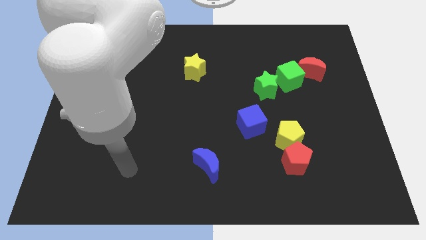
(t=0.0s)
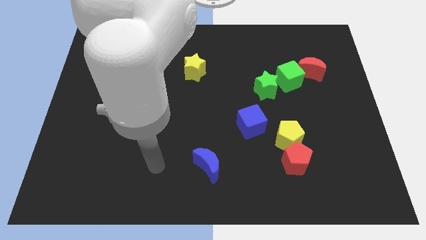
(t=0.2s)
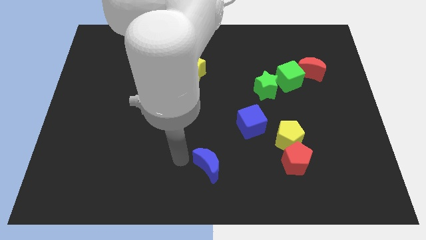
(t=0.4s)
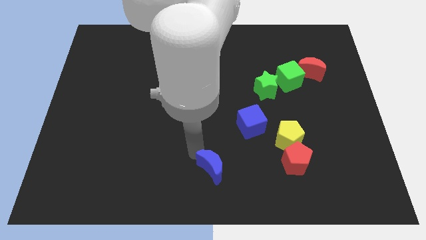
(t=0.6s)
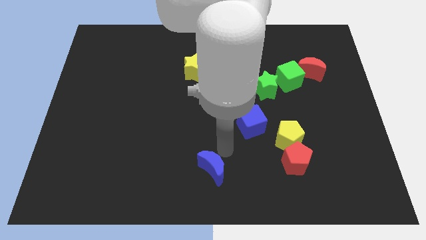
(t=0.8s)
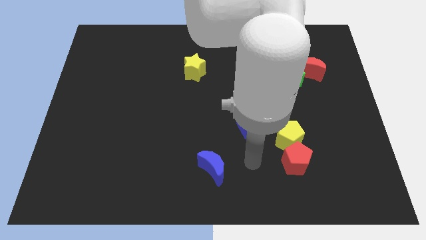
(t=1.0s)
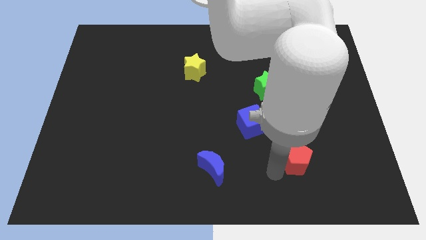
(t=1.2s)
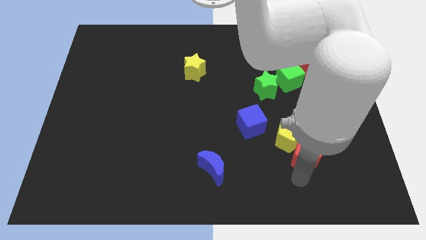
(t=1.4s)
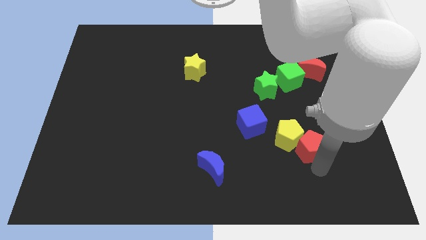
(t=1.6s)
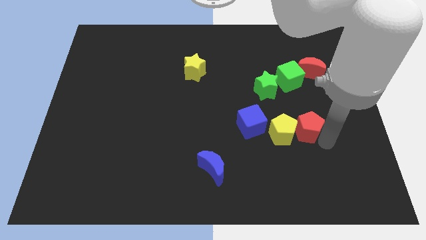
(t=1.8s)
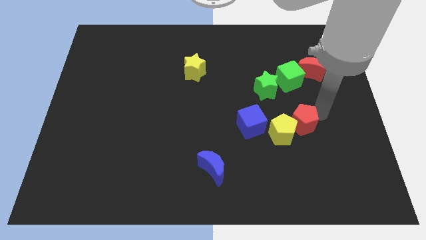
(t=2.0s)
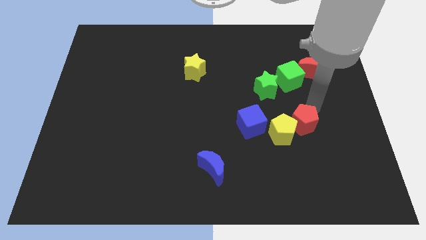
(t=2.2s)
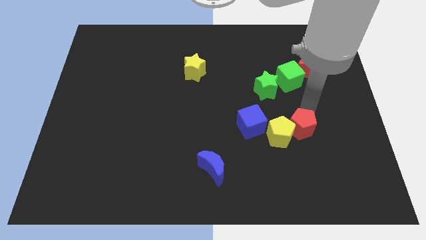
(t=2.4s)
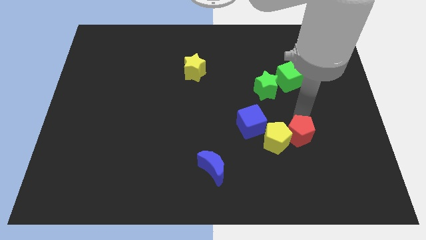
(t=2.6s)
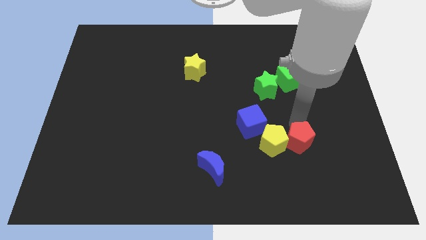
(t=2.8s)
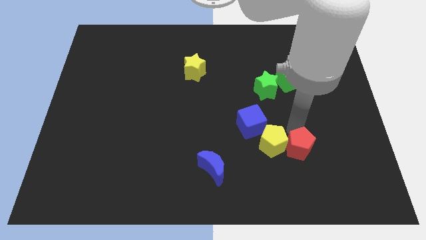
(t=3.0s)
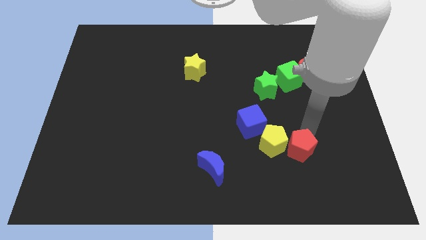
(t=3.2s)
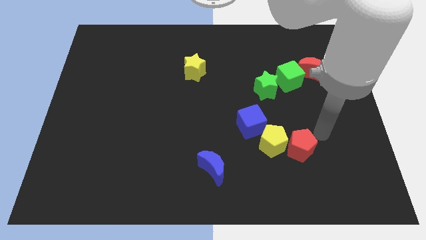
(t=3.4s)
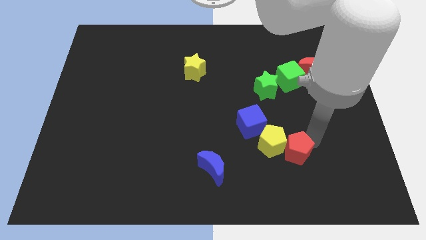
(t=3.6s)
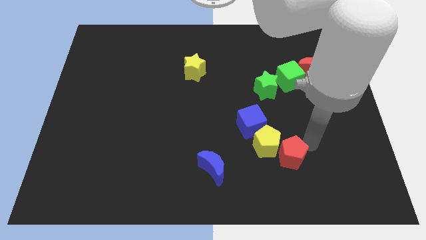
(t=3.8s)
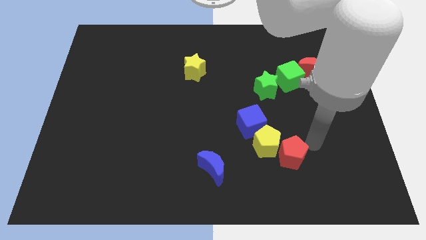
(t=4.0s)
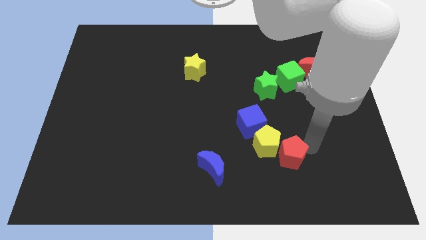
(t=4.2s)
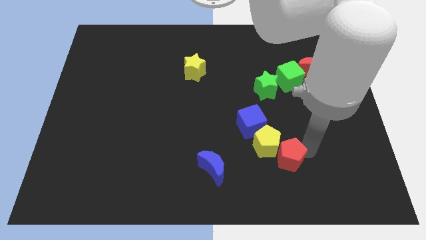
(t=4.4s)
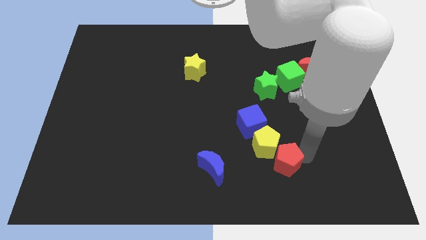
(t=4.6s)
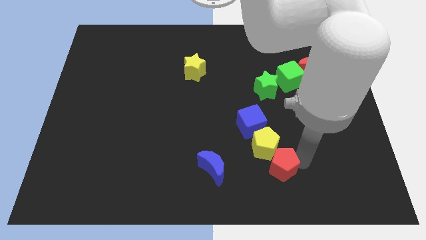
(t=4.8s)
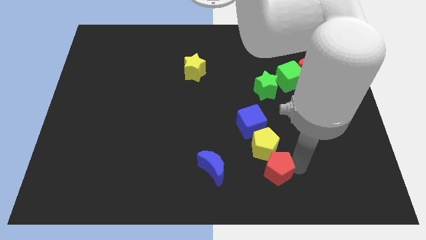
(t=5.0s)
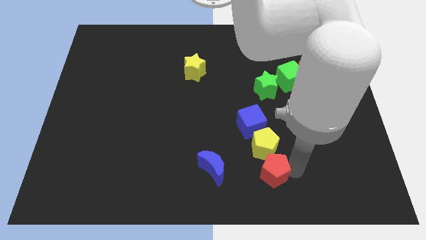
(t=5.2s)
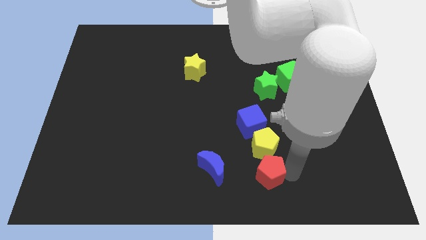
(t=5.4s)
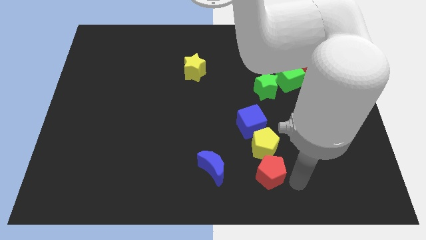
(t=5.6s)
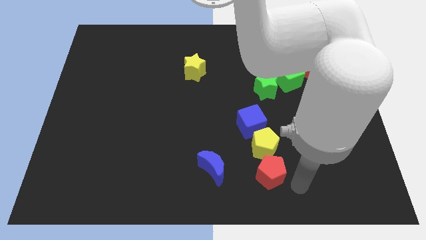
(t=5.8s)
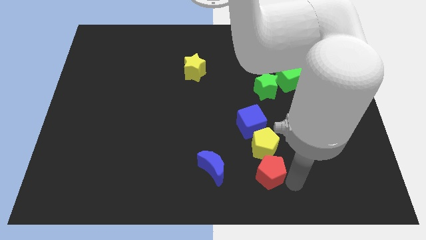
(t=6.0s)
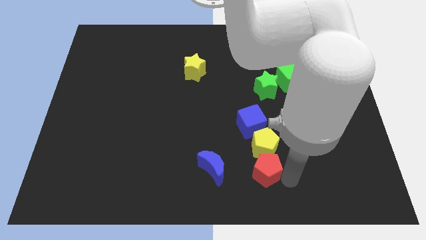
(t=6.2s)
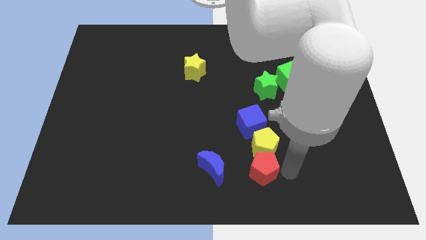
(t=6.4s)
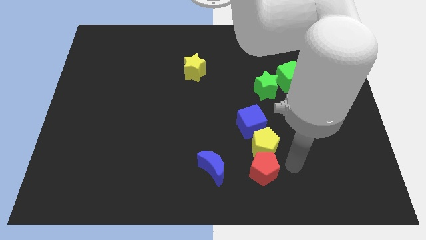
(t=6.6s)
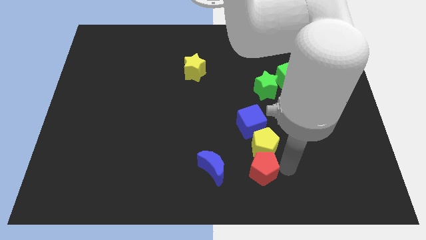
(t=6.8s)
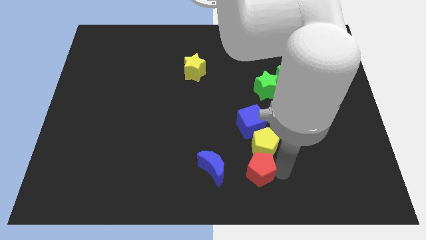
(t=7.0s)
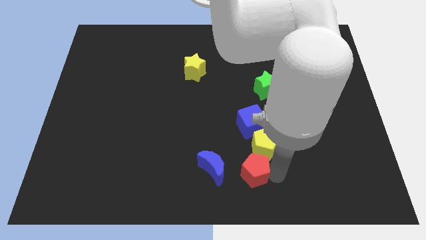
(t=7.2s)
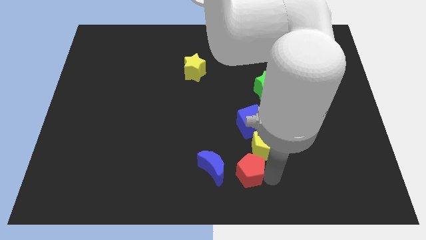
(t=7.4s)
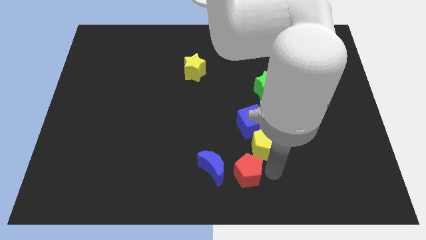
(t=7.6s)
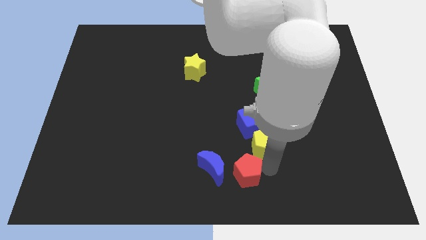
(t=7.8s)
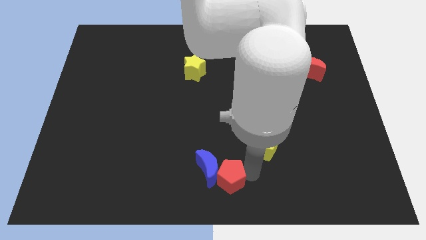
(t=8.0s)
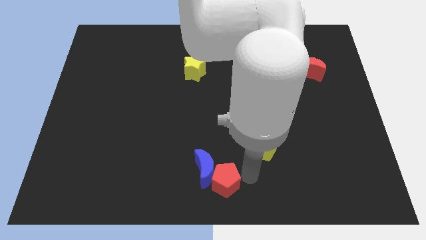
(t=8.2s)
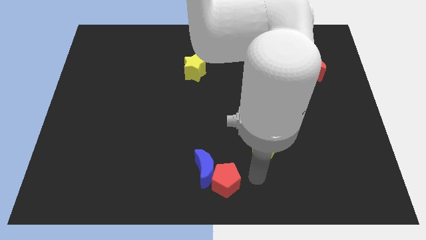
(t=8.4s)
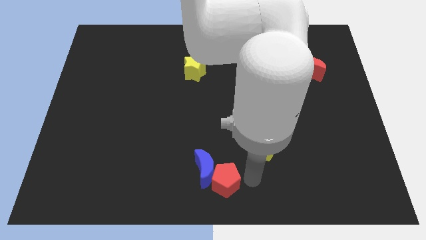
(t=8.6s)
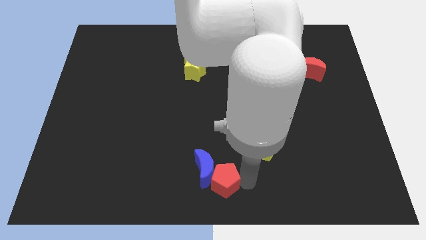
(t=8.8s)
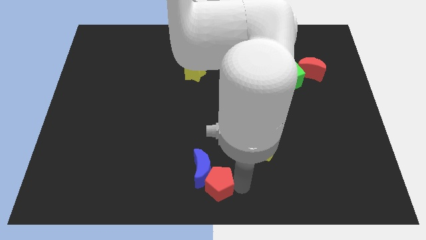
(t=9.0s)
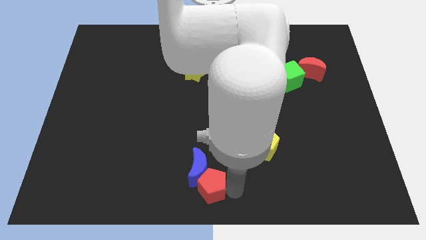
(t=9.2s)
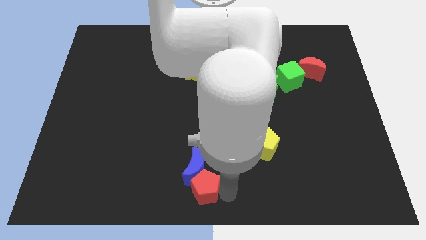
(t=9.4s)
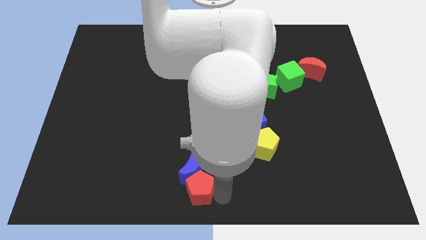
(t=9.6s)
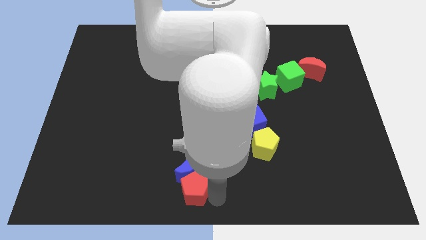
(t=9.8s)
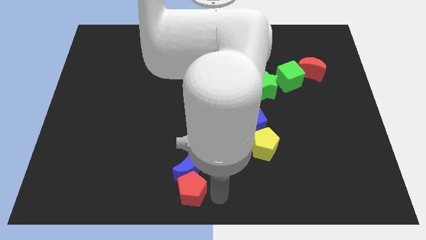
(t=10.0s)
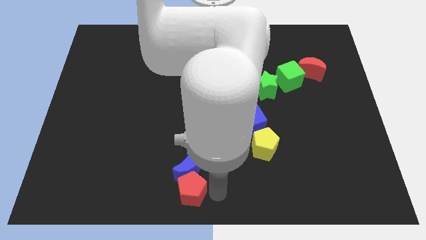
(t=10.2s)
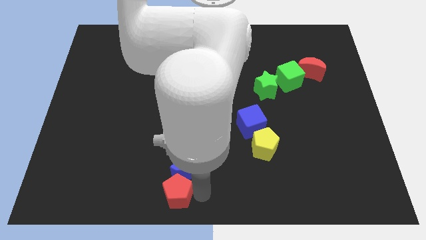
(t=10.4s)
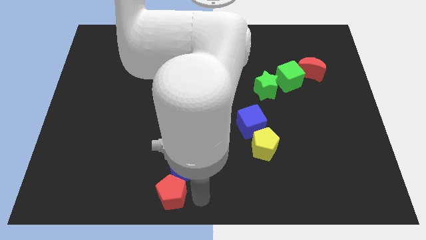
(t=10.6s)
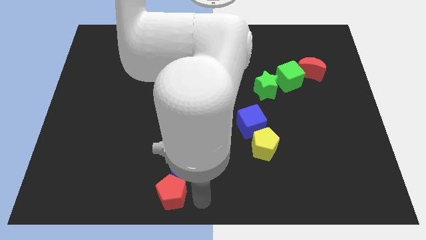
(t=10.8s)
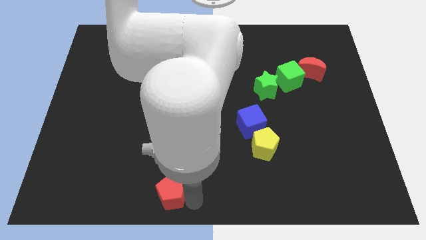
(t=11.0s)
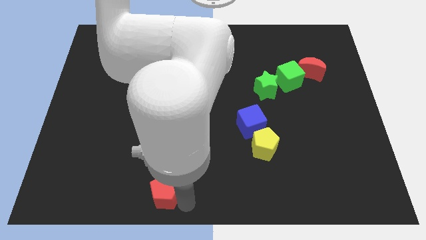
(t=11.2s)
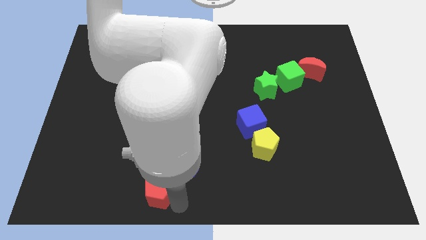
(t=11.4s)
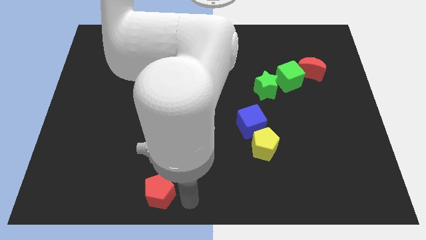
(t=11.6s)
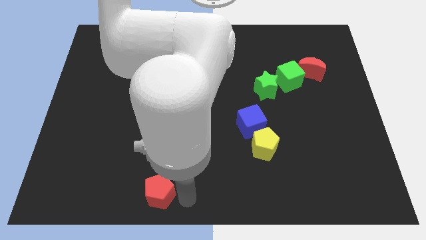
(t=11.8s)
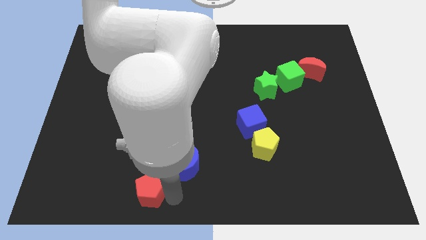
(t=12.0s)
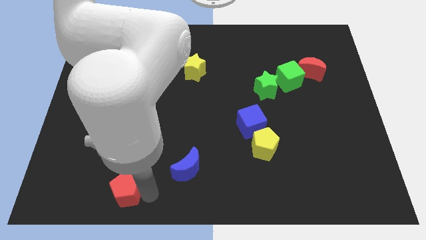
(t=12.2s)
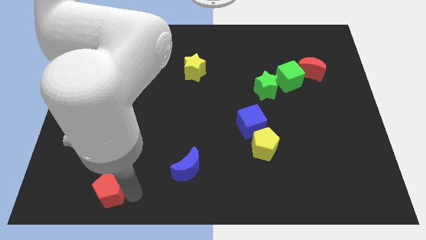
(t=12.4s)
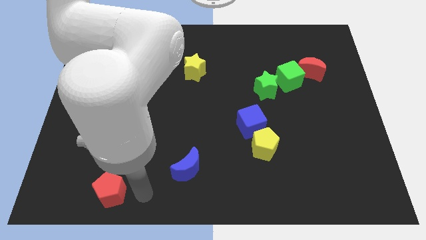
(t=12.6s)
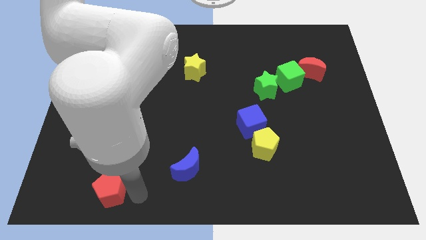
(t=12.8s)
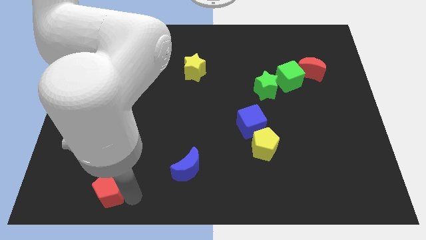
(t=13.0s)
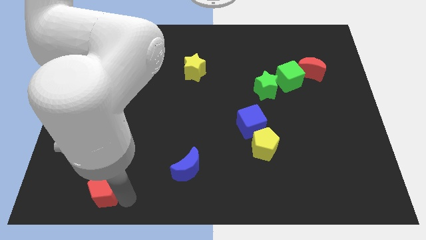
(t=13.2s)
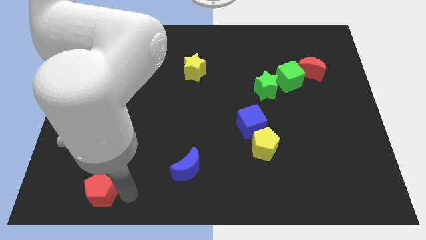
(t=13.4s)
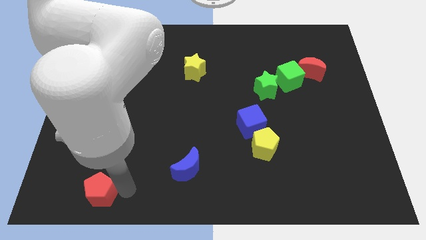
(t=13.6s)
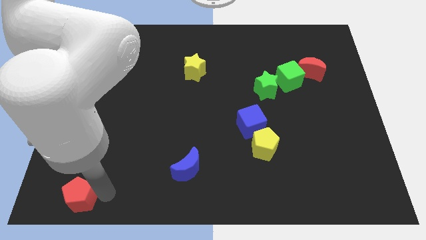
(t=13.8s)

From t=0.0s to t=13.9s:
move the red pentagon to the bottom left
